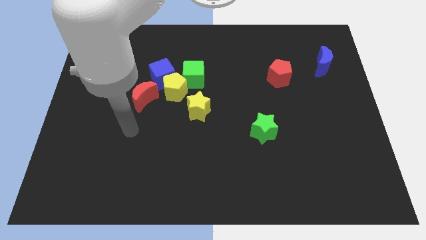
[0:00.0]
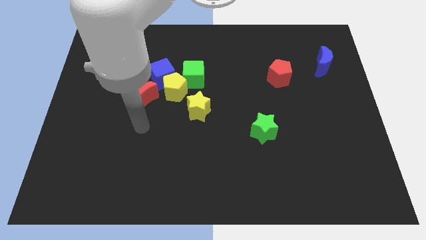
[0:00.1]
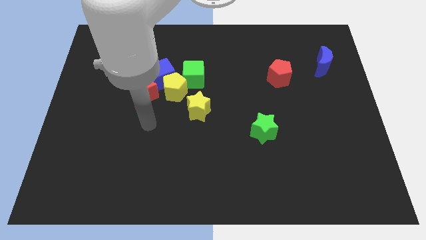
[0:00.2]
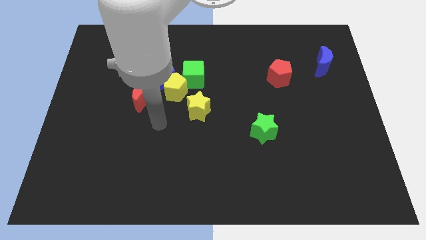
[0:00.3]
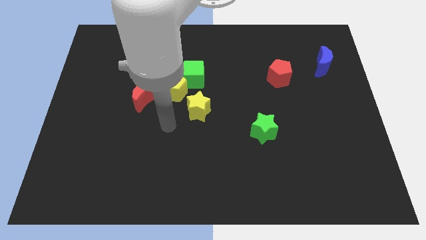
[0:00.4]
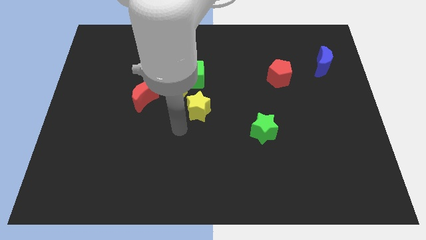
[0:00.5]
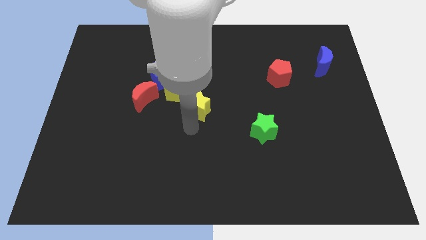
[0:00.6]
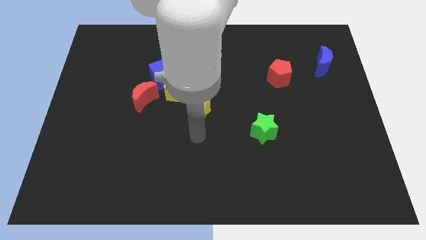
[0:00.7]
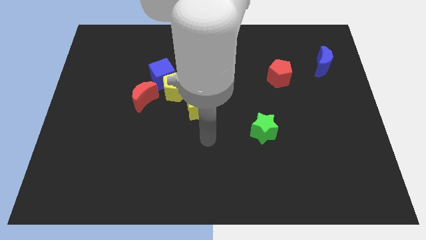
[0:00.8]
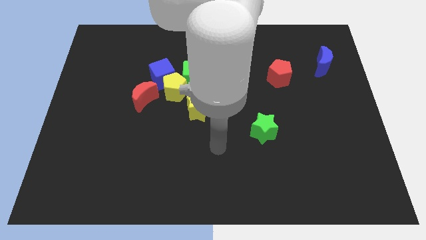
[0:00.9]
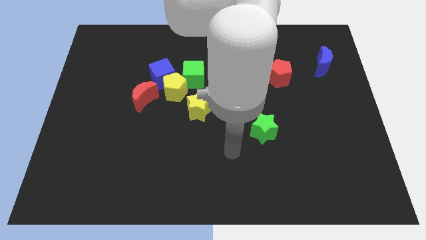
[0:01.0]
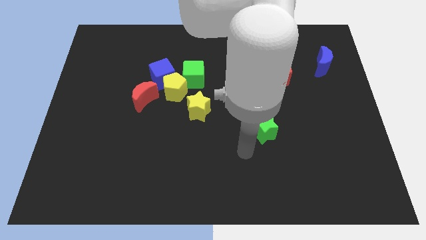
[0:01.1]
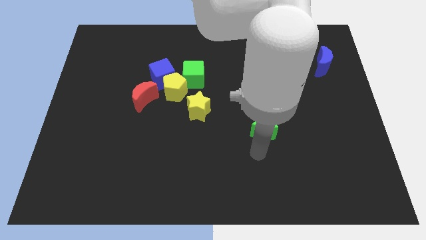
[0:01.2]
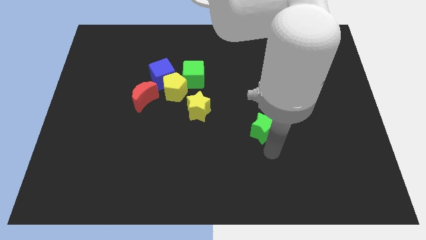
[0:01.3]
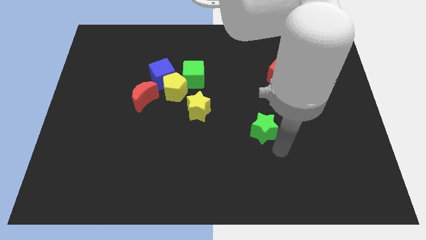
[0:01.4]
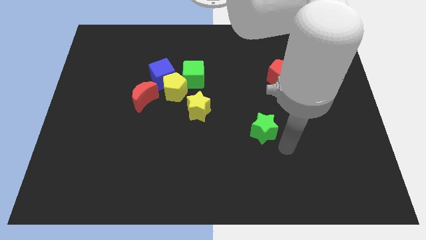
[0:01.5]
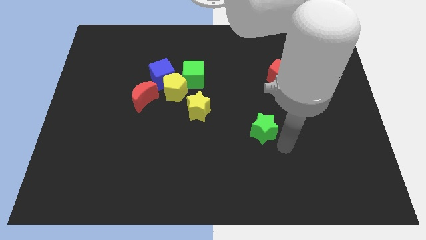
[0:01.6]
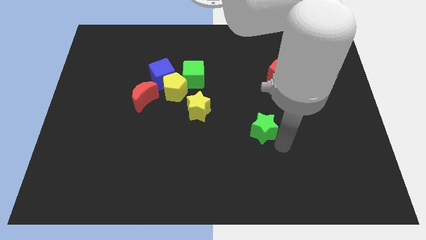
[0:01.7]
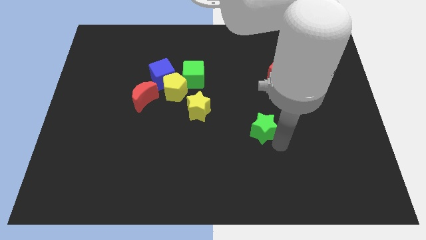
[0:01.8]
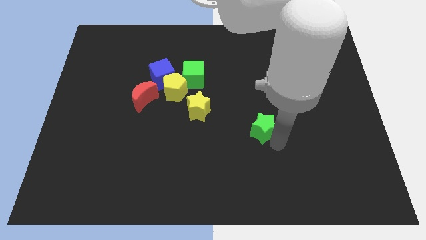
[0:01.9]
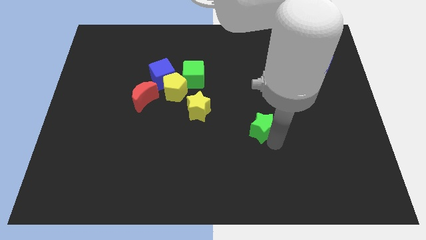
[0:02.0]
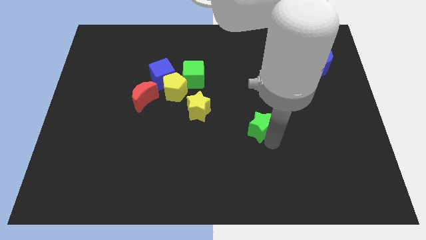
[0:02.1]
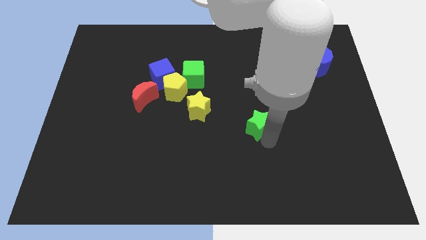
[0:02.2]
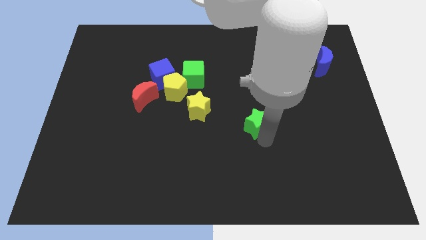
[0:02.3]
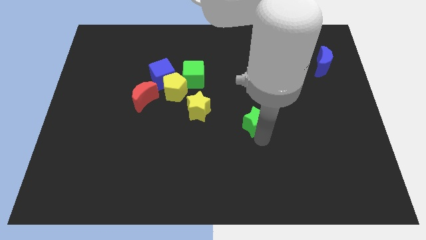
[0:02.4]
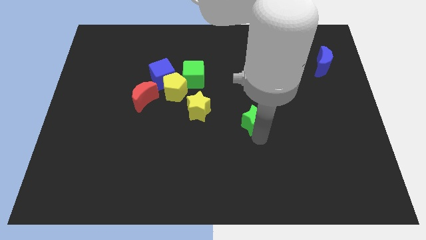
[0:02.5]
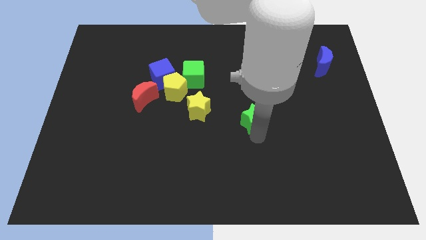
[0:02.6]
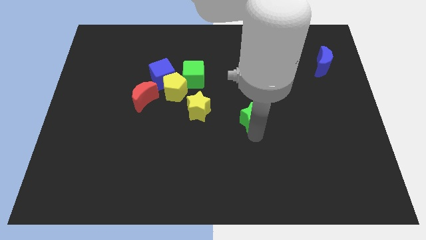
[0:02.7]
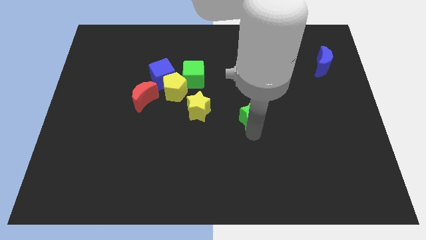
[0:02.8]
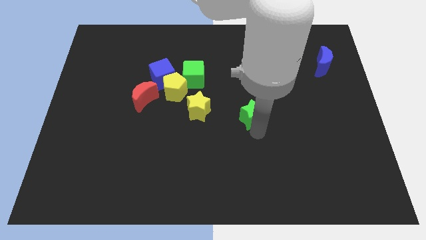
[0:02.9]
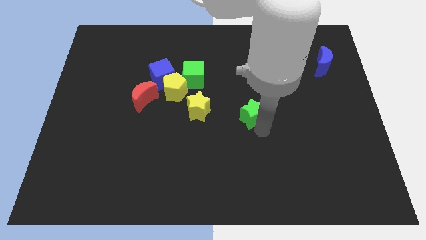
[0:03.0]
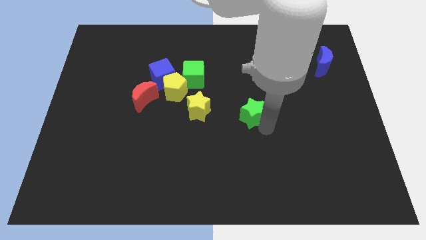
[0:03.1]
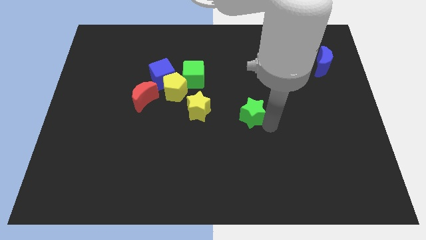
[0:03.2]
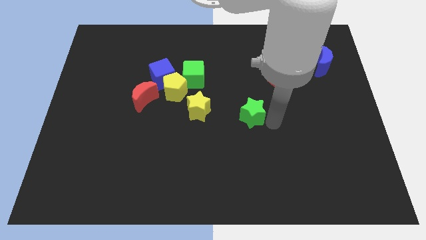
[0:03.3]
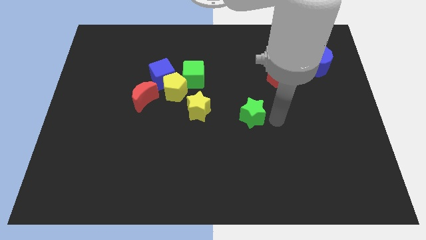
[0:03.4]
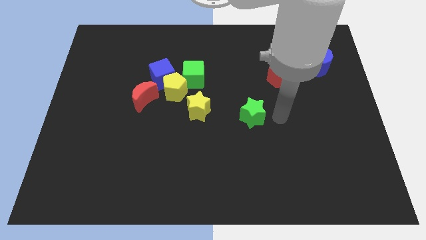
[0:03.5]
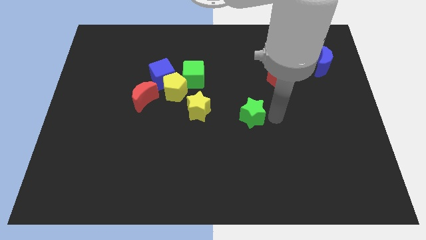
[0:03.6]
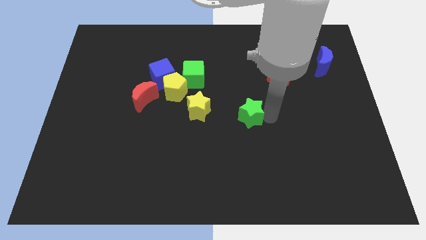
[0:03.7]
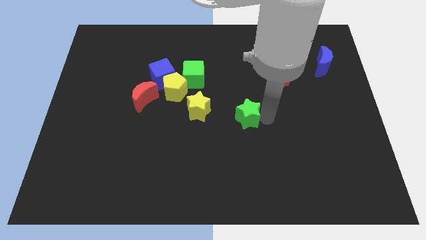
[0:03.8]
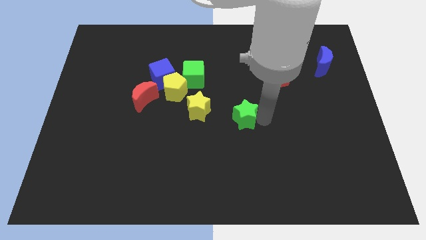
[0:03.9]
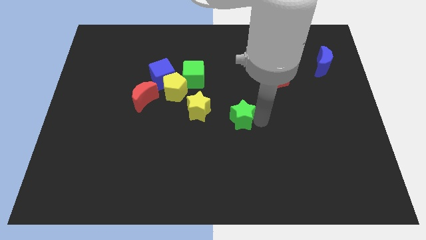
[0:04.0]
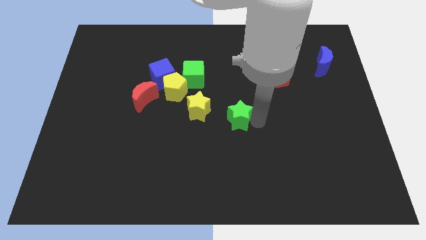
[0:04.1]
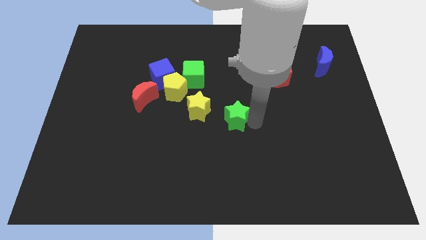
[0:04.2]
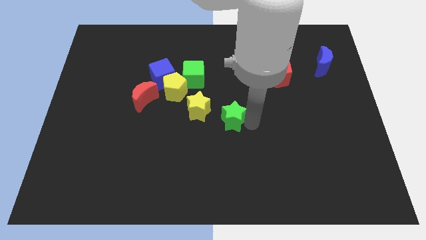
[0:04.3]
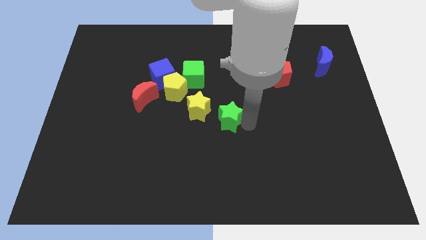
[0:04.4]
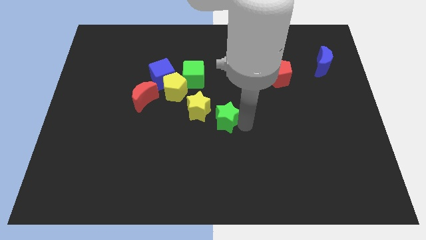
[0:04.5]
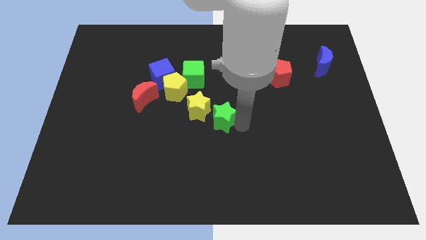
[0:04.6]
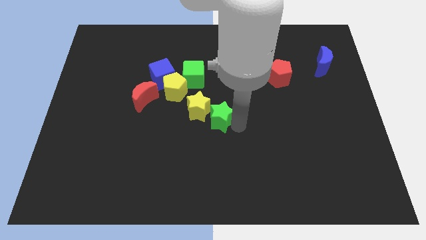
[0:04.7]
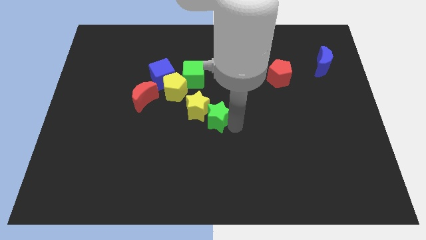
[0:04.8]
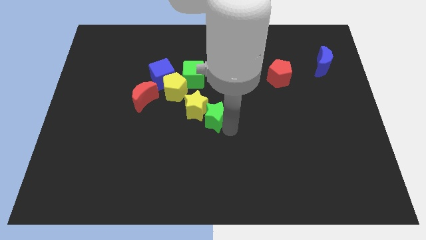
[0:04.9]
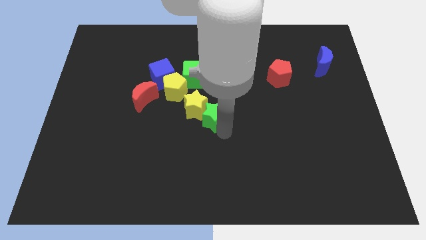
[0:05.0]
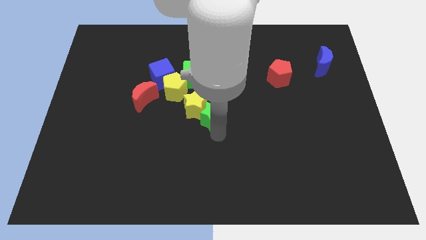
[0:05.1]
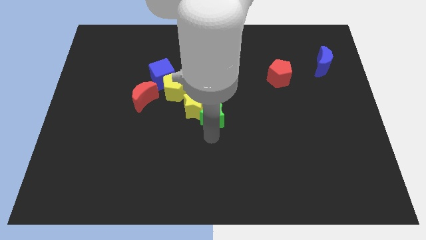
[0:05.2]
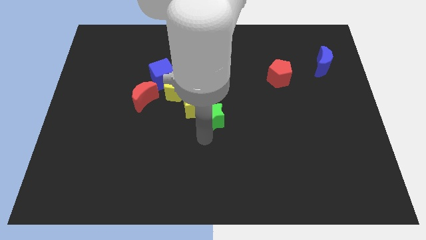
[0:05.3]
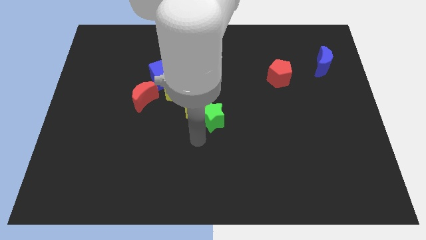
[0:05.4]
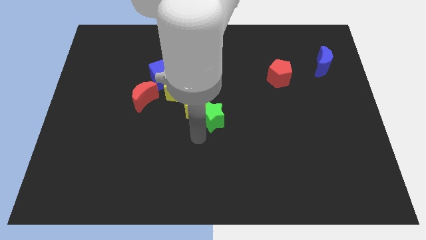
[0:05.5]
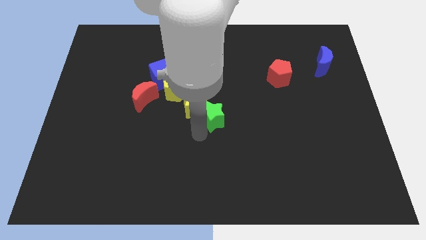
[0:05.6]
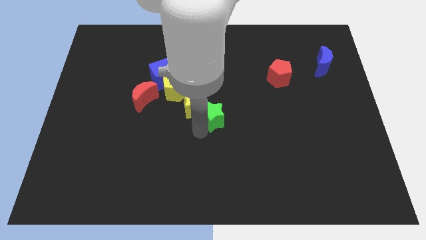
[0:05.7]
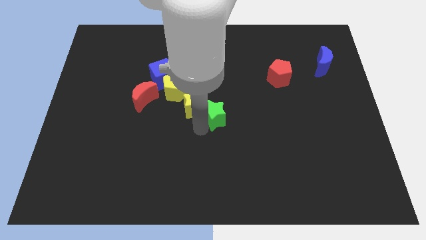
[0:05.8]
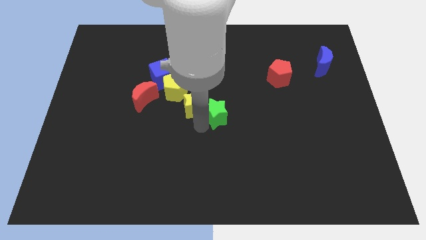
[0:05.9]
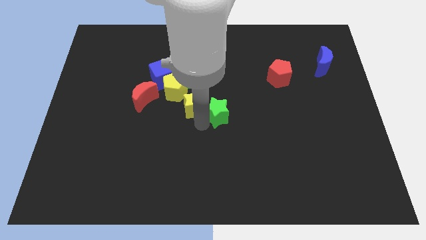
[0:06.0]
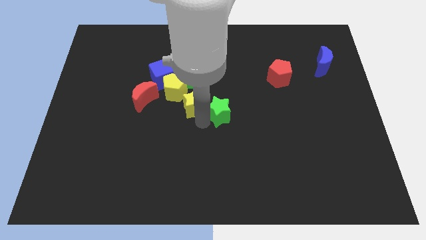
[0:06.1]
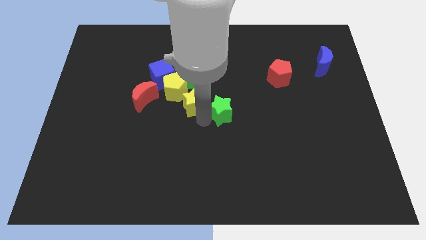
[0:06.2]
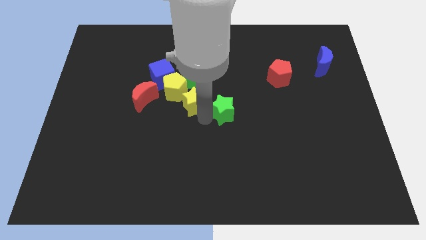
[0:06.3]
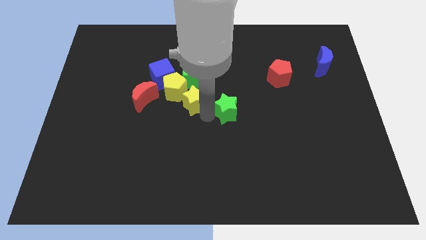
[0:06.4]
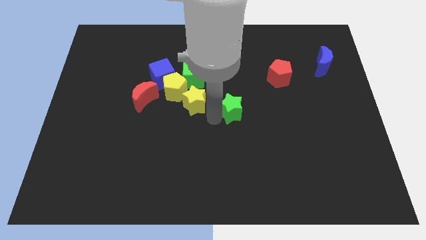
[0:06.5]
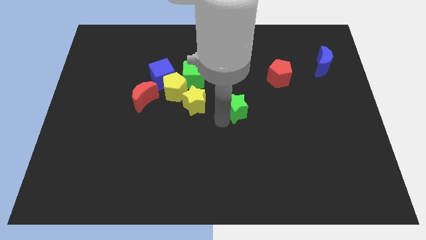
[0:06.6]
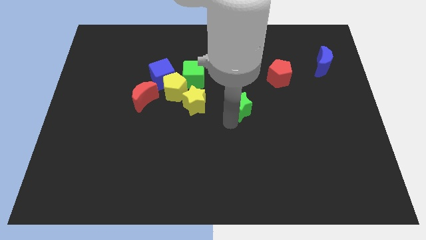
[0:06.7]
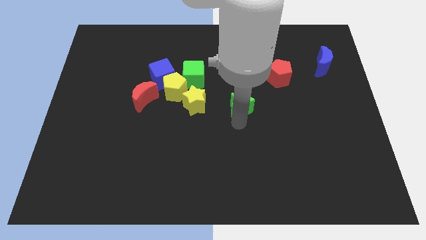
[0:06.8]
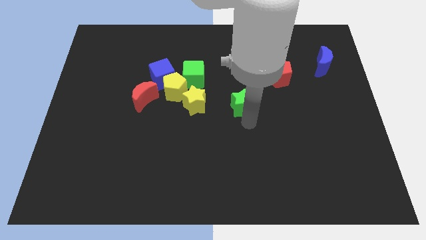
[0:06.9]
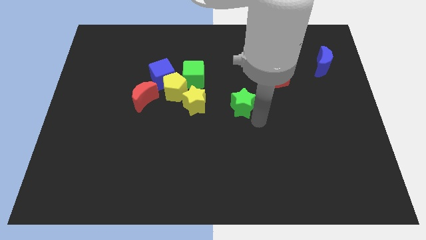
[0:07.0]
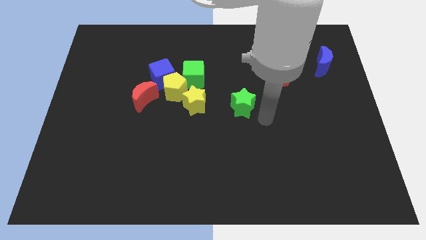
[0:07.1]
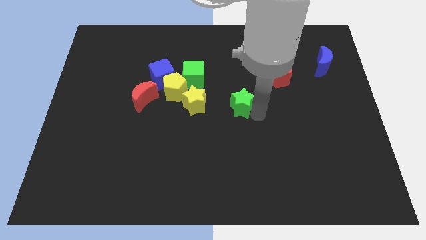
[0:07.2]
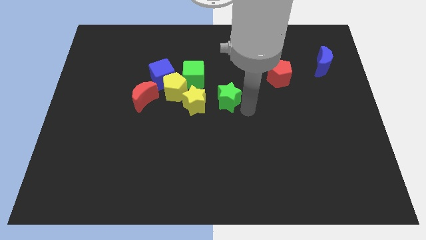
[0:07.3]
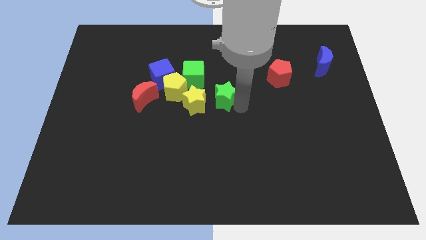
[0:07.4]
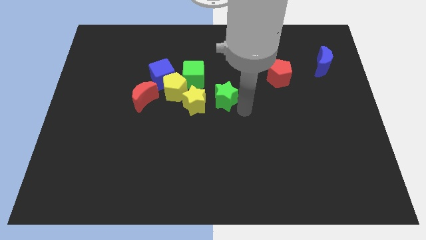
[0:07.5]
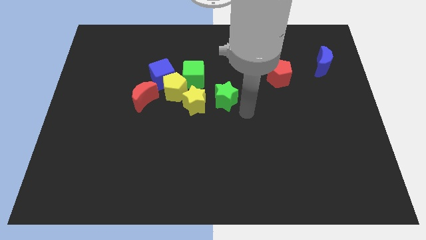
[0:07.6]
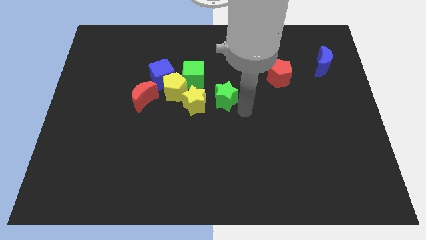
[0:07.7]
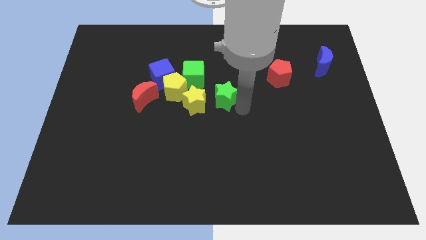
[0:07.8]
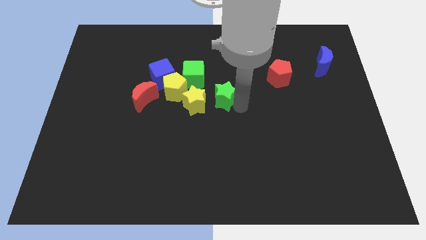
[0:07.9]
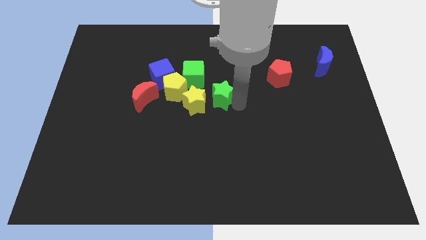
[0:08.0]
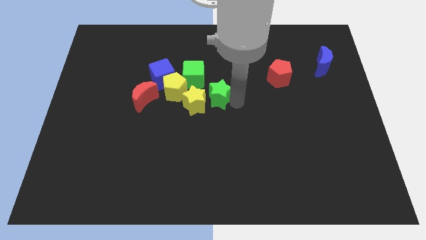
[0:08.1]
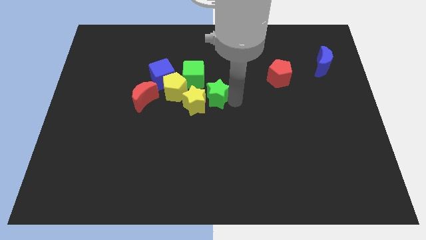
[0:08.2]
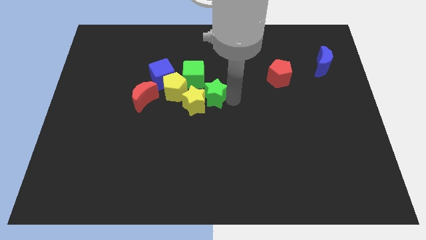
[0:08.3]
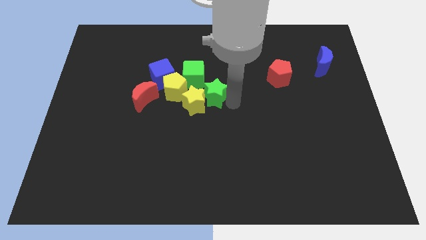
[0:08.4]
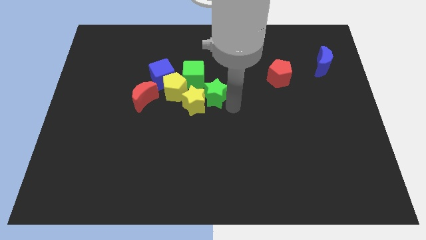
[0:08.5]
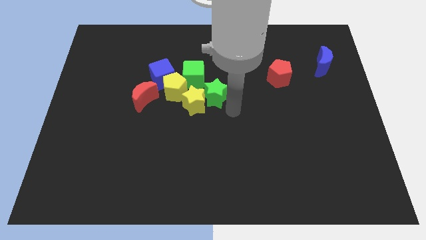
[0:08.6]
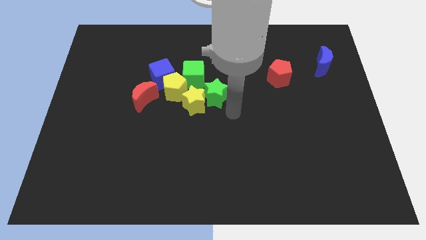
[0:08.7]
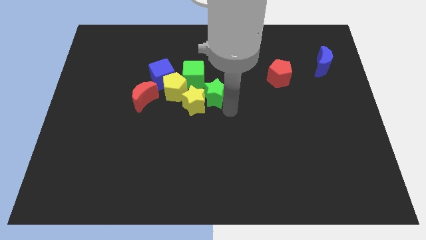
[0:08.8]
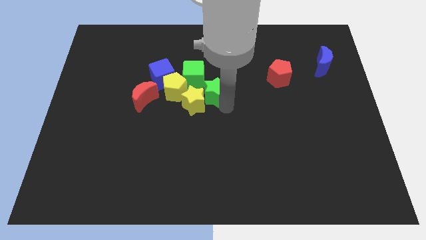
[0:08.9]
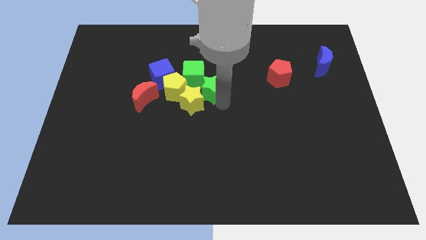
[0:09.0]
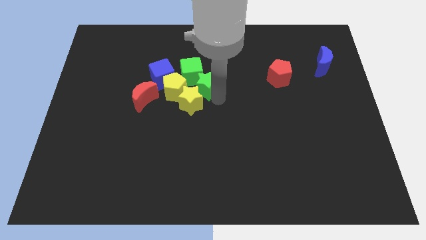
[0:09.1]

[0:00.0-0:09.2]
move the green star next to the green cube
